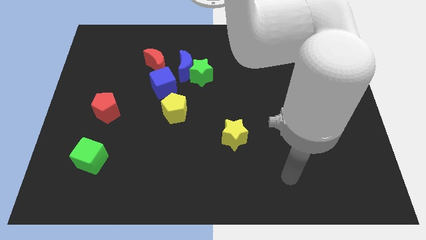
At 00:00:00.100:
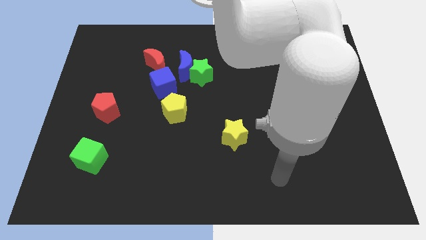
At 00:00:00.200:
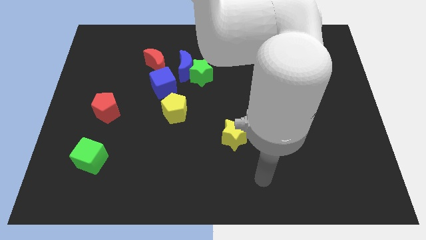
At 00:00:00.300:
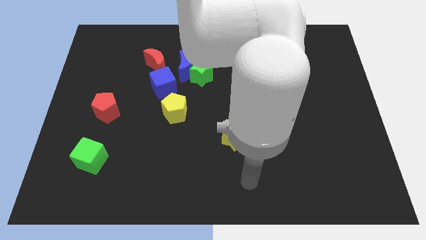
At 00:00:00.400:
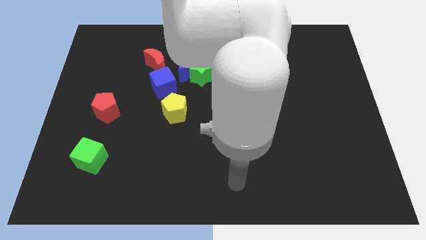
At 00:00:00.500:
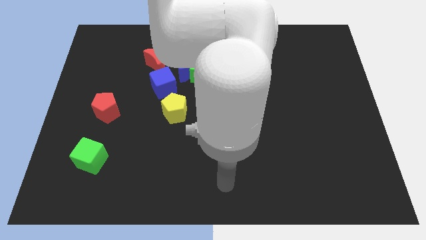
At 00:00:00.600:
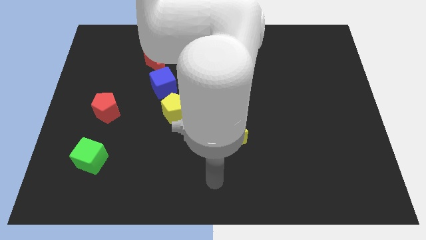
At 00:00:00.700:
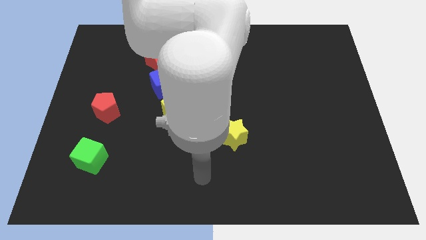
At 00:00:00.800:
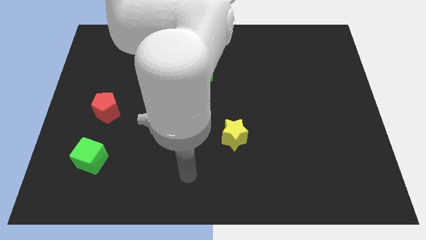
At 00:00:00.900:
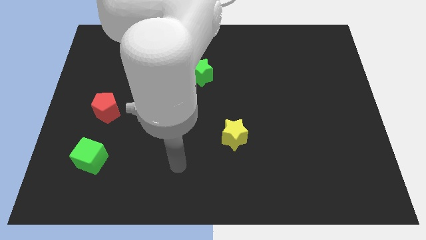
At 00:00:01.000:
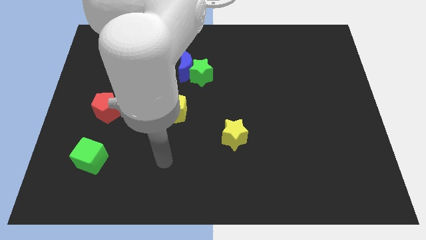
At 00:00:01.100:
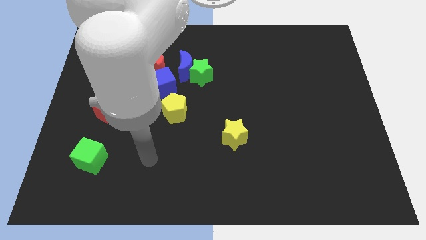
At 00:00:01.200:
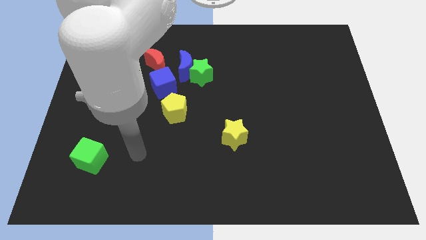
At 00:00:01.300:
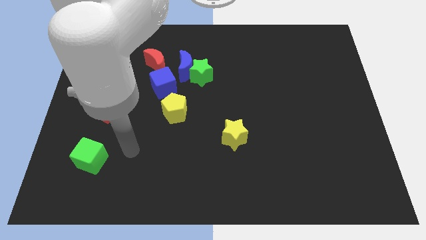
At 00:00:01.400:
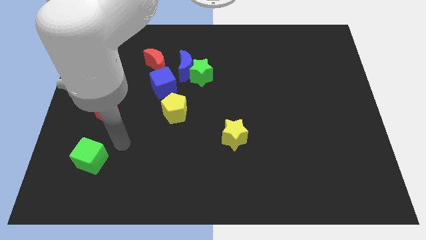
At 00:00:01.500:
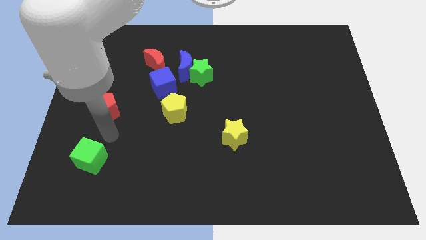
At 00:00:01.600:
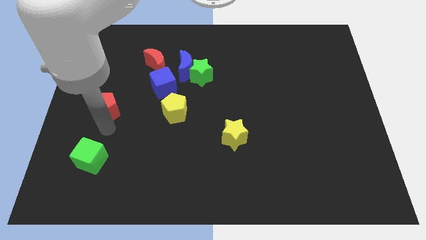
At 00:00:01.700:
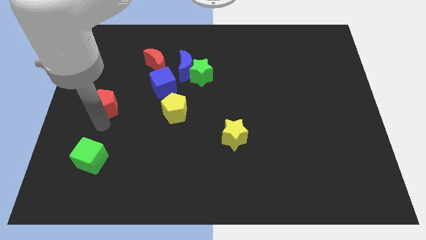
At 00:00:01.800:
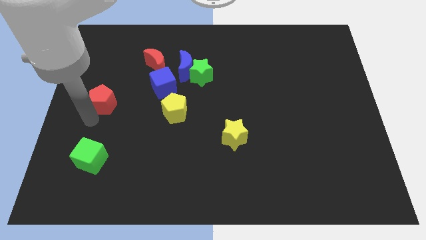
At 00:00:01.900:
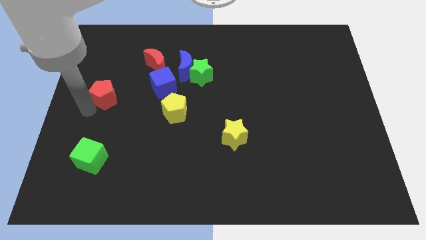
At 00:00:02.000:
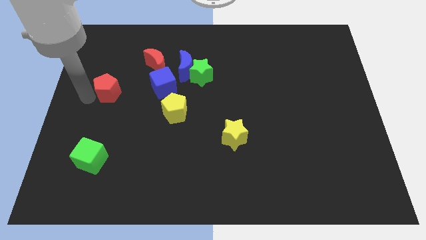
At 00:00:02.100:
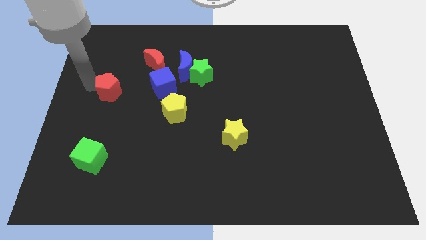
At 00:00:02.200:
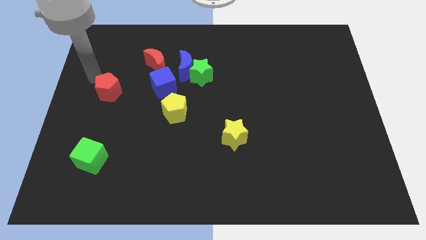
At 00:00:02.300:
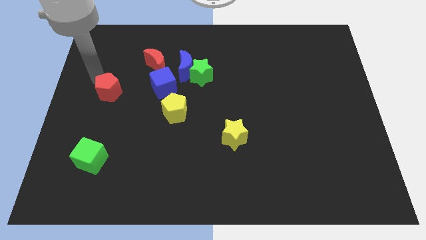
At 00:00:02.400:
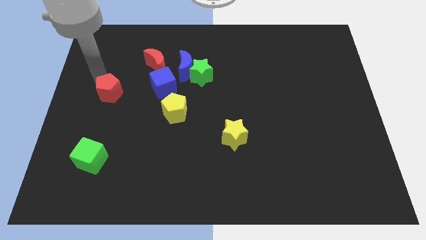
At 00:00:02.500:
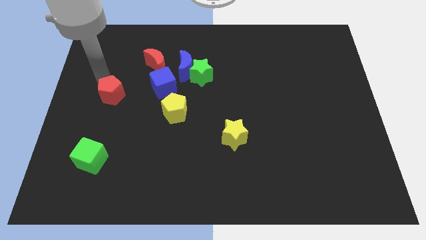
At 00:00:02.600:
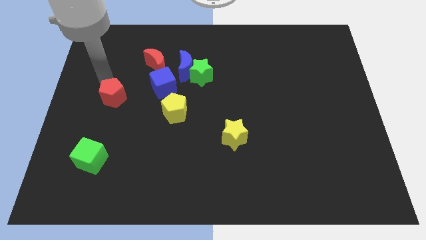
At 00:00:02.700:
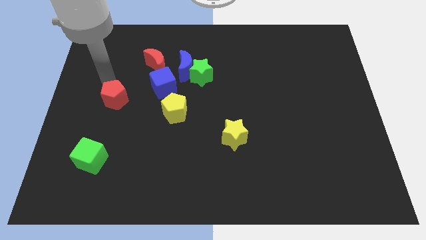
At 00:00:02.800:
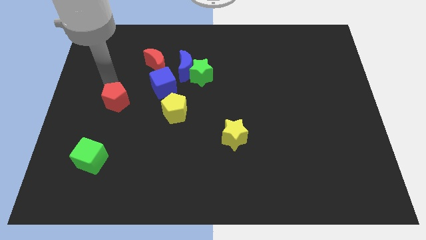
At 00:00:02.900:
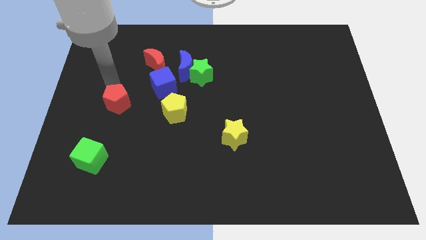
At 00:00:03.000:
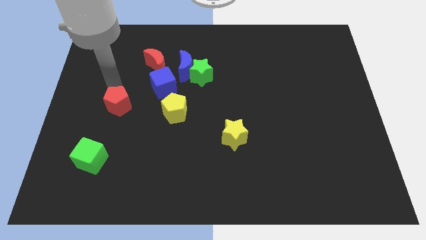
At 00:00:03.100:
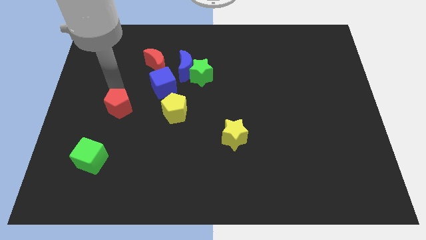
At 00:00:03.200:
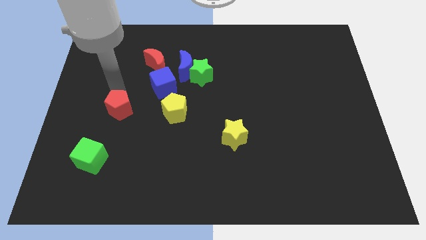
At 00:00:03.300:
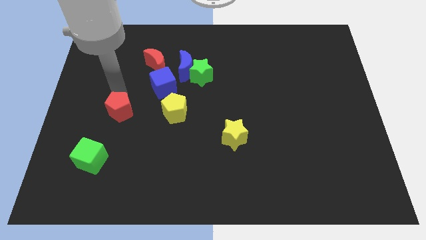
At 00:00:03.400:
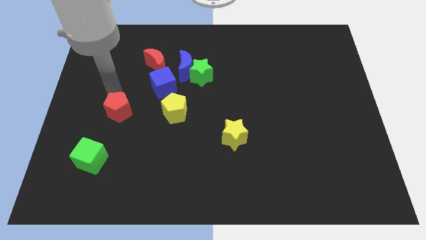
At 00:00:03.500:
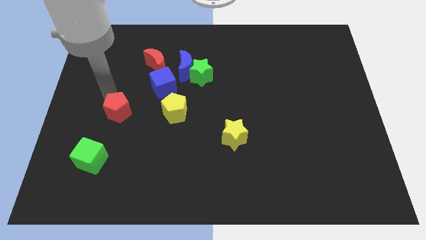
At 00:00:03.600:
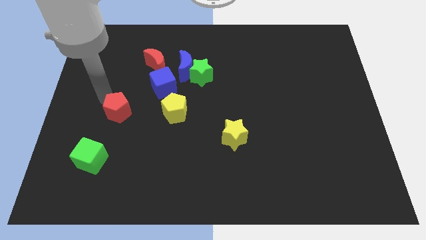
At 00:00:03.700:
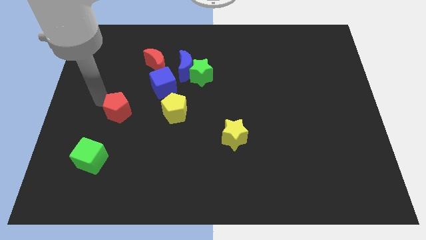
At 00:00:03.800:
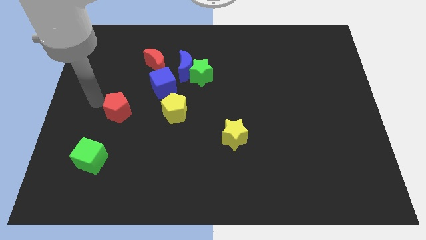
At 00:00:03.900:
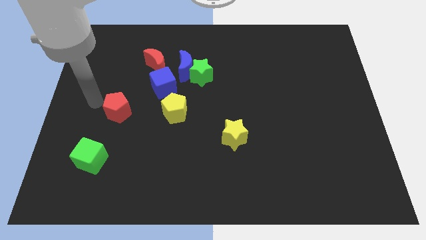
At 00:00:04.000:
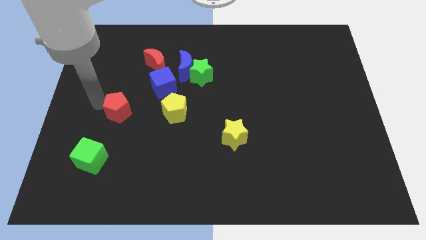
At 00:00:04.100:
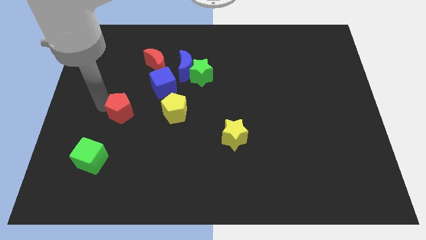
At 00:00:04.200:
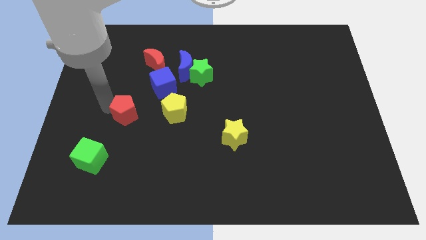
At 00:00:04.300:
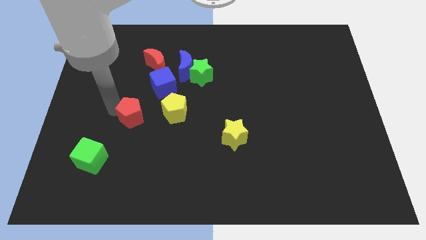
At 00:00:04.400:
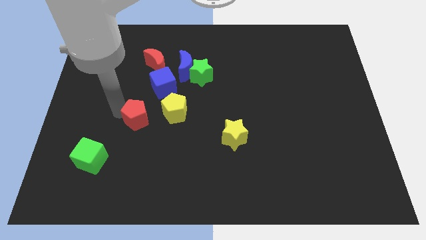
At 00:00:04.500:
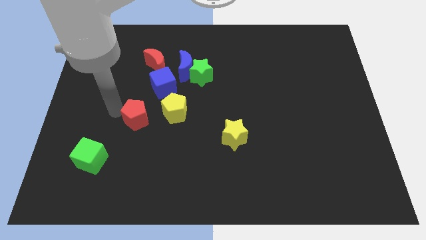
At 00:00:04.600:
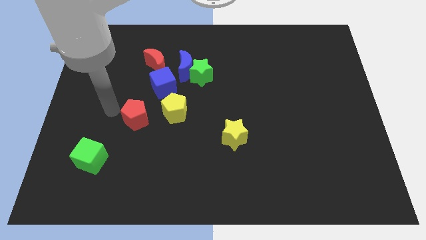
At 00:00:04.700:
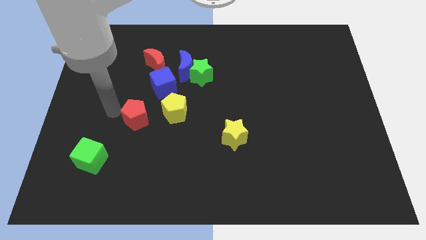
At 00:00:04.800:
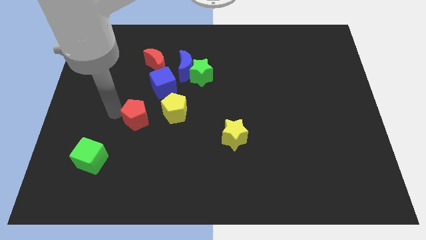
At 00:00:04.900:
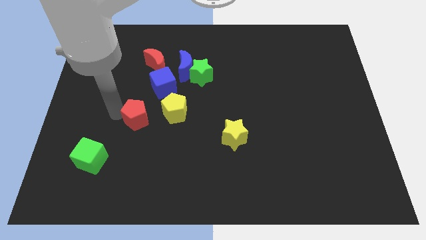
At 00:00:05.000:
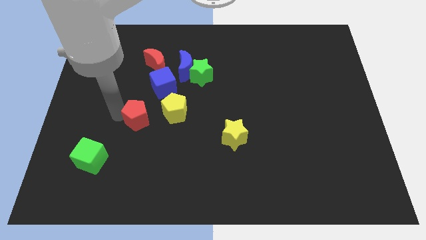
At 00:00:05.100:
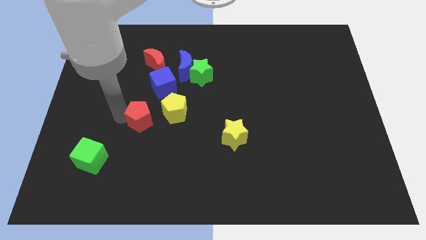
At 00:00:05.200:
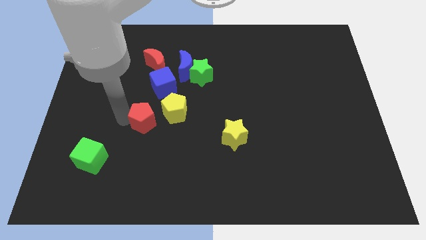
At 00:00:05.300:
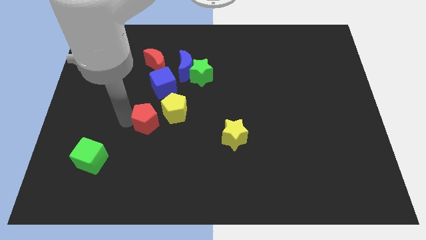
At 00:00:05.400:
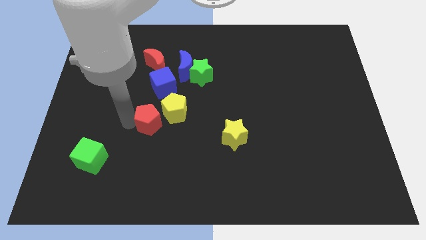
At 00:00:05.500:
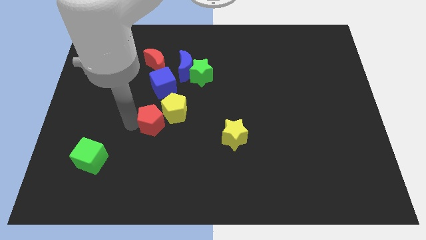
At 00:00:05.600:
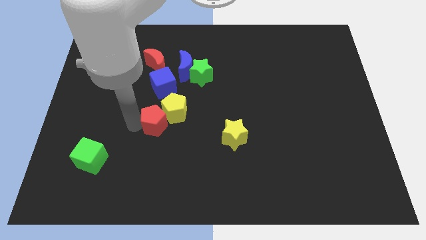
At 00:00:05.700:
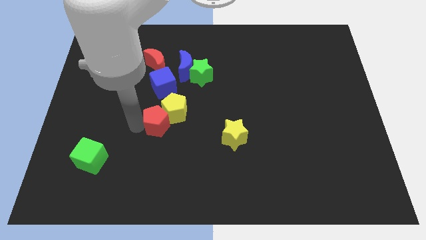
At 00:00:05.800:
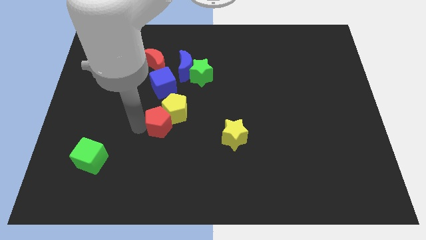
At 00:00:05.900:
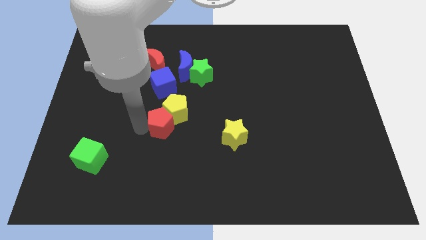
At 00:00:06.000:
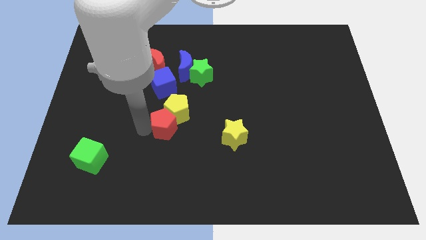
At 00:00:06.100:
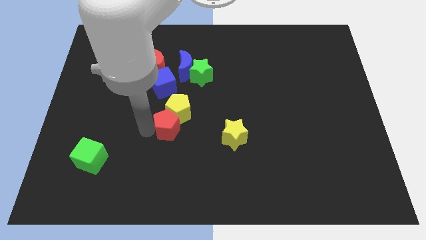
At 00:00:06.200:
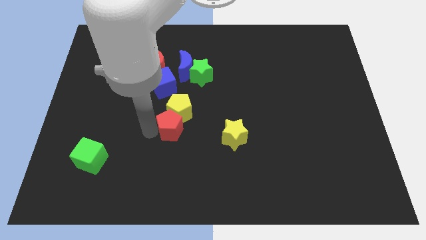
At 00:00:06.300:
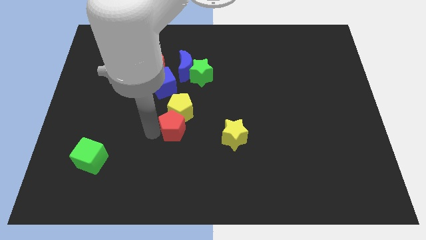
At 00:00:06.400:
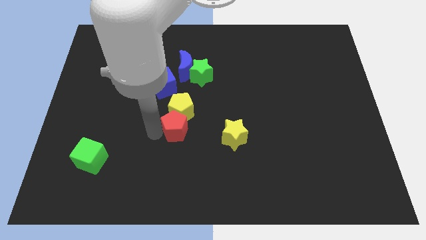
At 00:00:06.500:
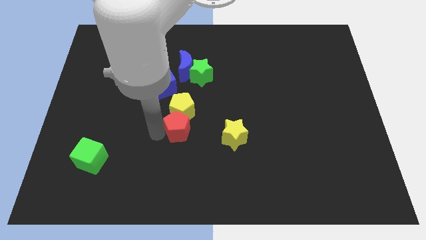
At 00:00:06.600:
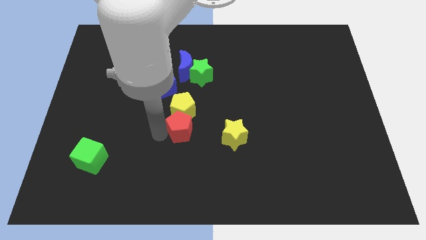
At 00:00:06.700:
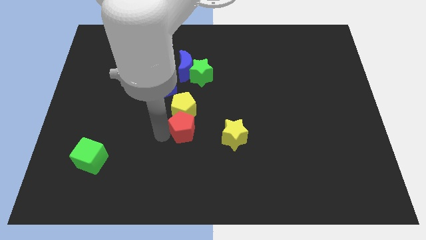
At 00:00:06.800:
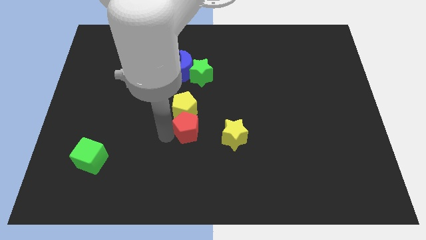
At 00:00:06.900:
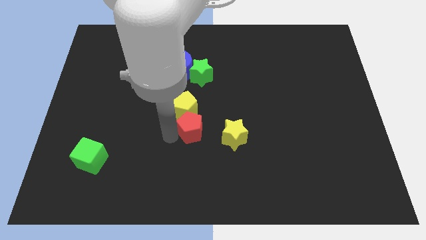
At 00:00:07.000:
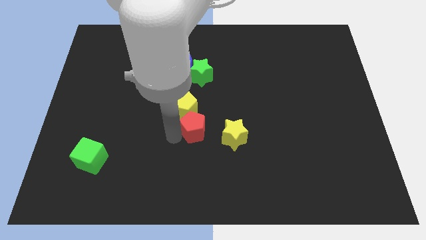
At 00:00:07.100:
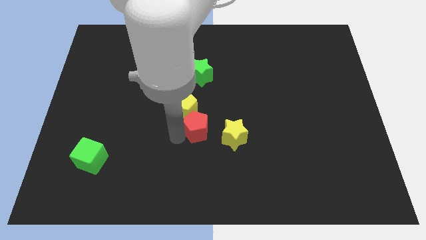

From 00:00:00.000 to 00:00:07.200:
move the red pentagon to the right

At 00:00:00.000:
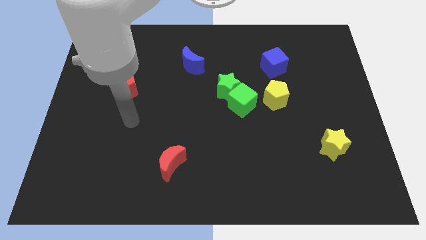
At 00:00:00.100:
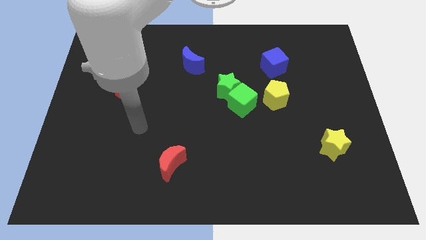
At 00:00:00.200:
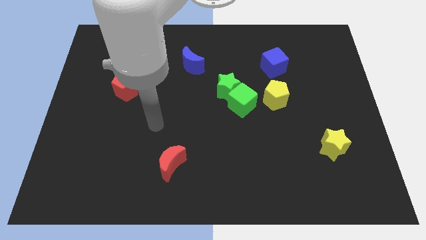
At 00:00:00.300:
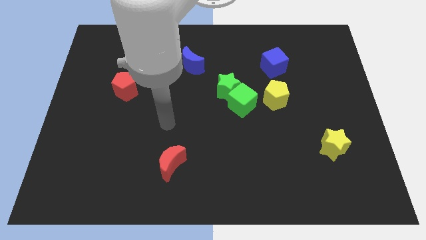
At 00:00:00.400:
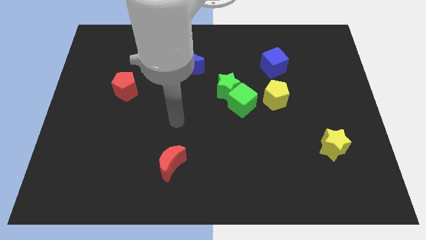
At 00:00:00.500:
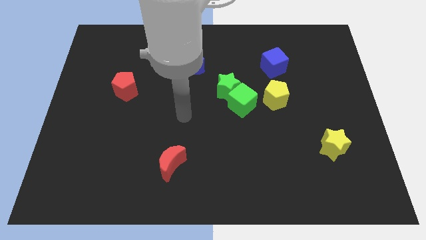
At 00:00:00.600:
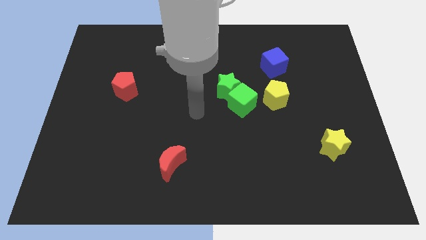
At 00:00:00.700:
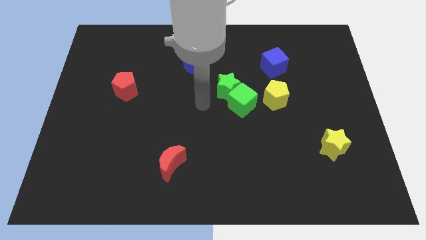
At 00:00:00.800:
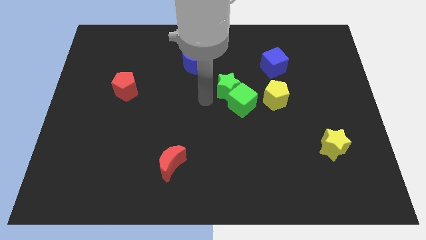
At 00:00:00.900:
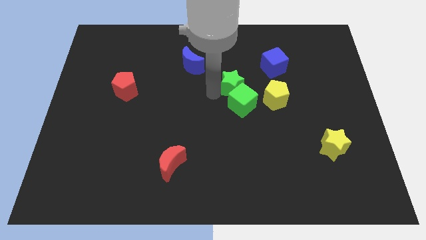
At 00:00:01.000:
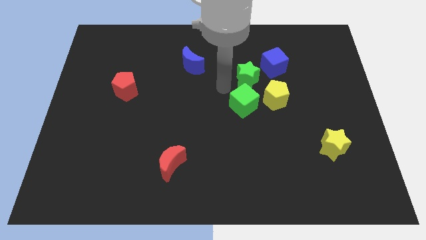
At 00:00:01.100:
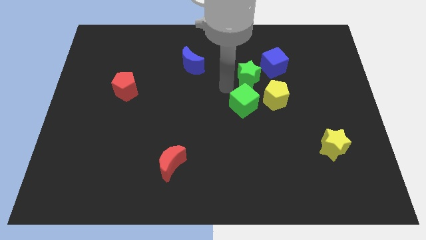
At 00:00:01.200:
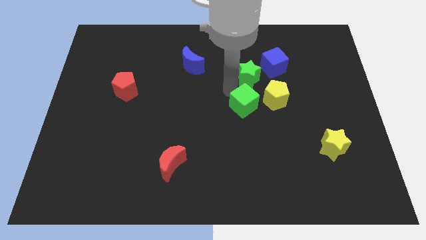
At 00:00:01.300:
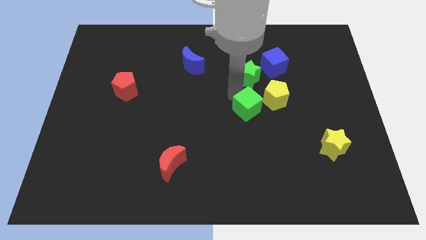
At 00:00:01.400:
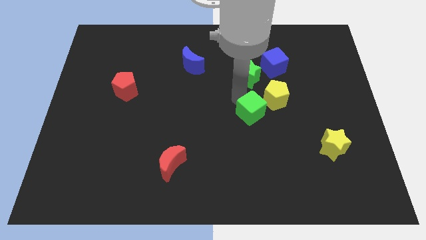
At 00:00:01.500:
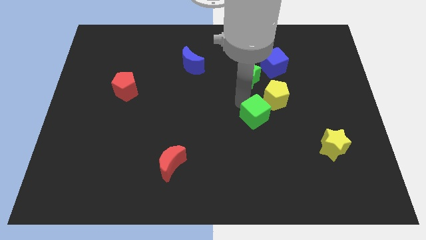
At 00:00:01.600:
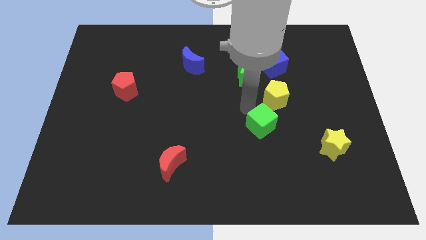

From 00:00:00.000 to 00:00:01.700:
push the green cube slightly downwards and then right
